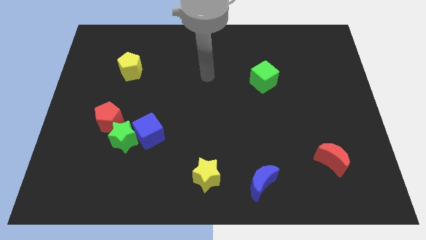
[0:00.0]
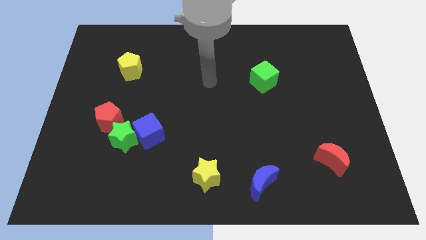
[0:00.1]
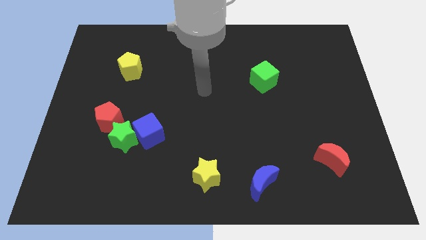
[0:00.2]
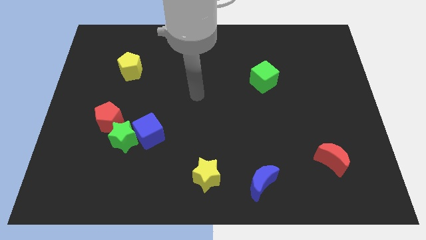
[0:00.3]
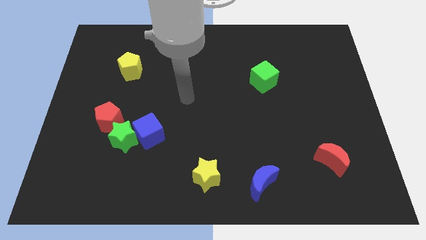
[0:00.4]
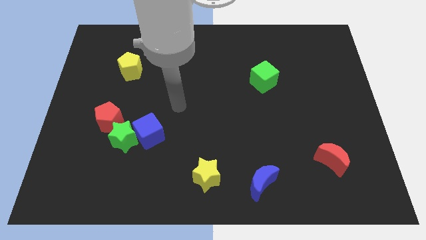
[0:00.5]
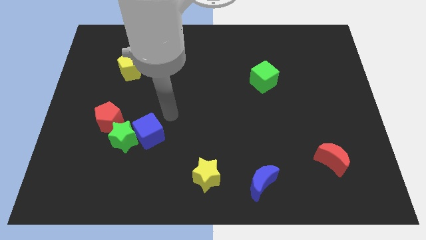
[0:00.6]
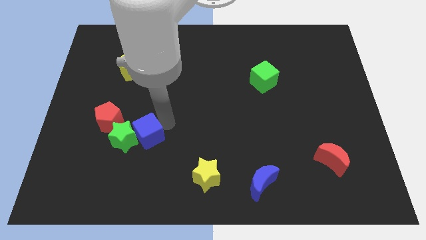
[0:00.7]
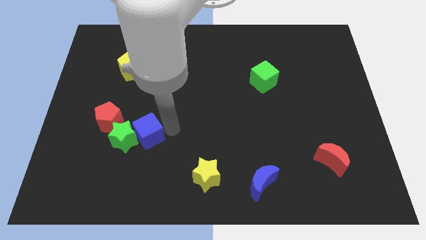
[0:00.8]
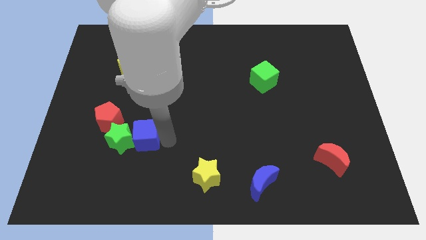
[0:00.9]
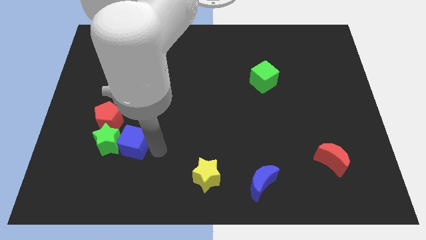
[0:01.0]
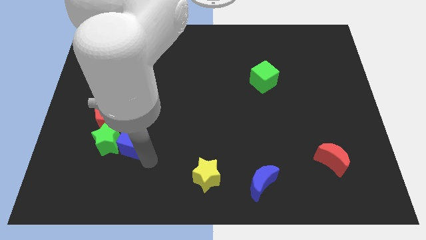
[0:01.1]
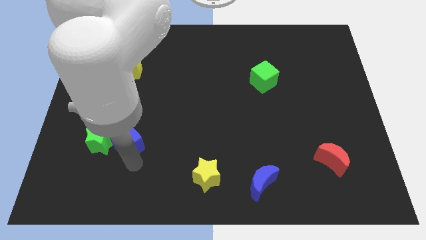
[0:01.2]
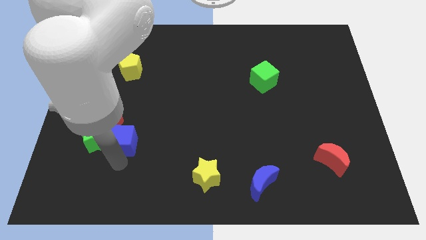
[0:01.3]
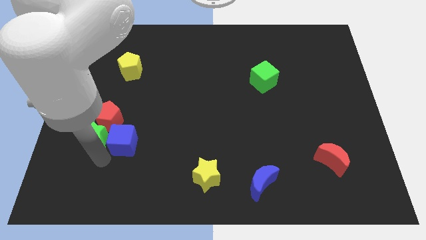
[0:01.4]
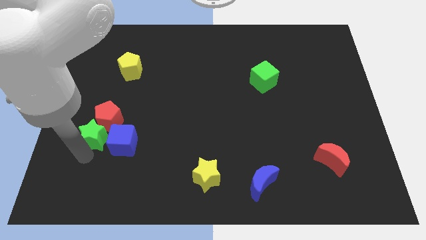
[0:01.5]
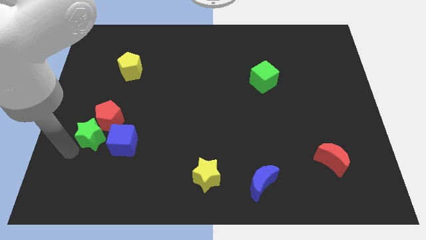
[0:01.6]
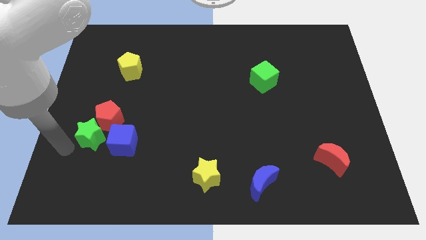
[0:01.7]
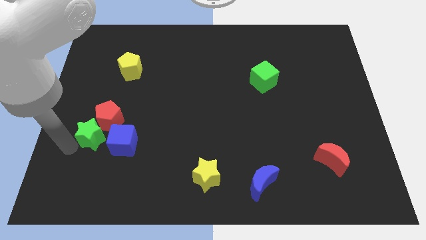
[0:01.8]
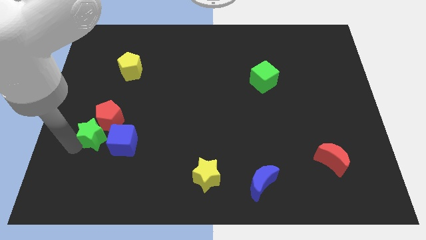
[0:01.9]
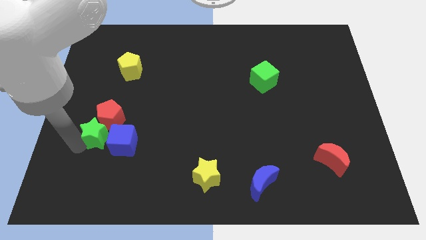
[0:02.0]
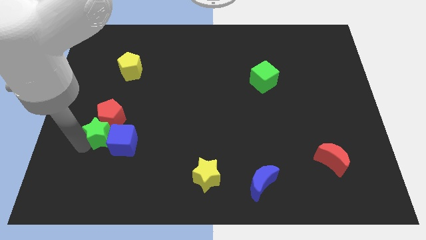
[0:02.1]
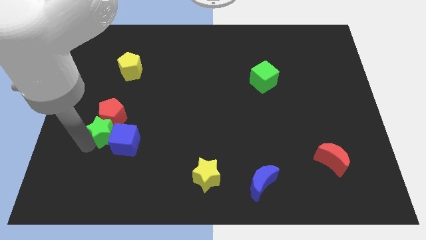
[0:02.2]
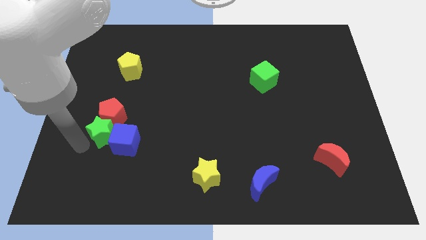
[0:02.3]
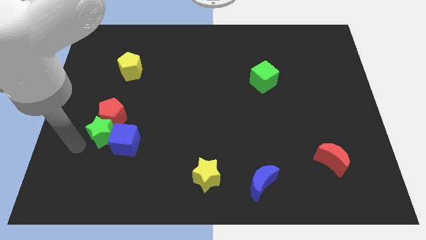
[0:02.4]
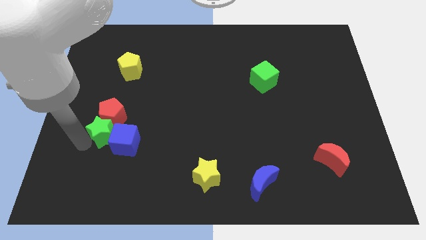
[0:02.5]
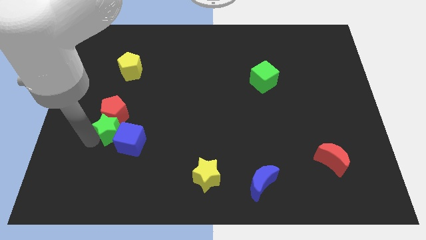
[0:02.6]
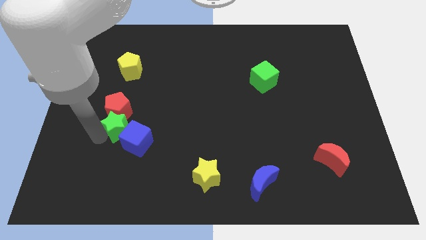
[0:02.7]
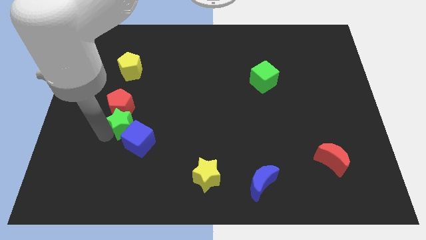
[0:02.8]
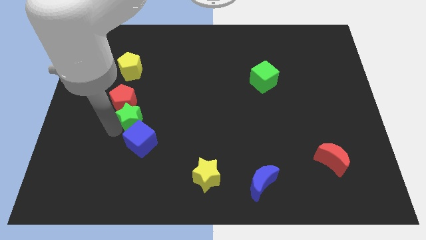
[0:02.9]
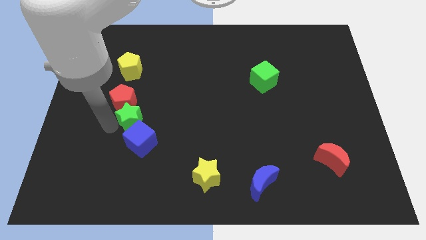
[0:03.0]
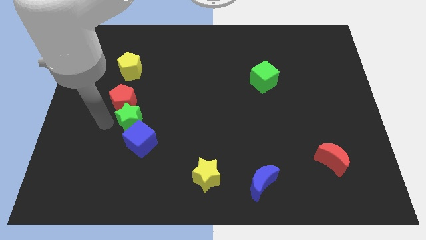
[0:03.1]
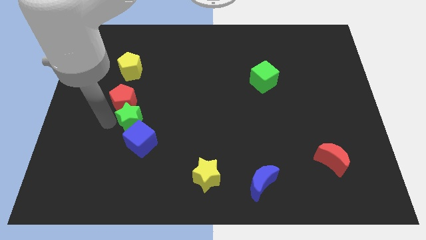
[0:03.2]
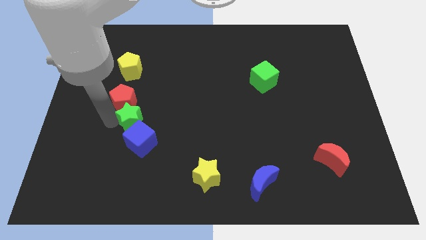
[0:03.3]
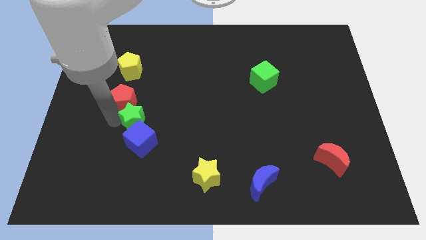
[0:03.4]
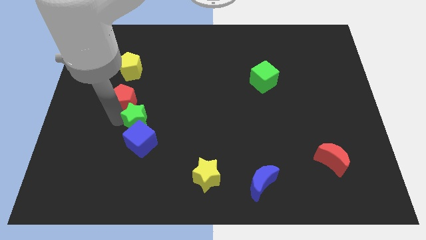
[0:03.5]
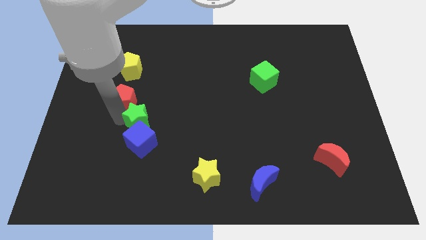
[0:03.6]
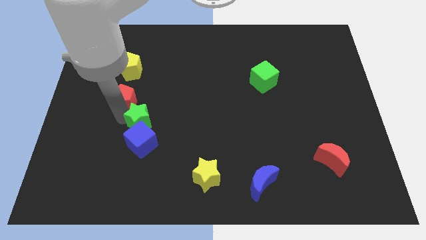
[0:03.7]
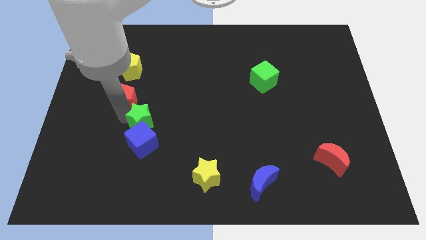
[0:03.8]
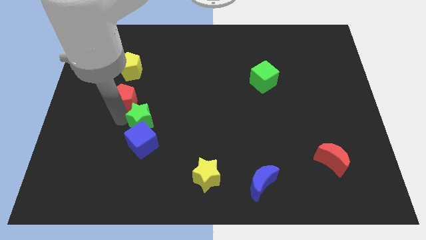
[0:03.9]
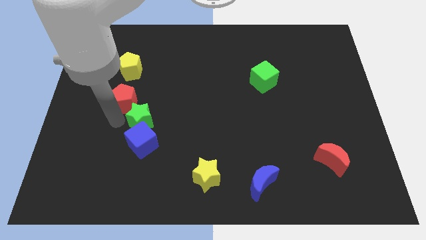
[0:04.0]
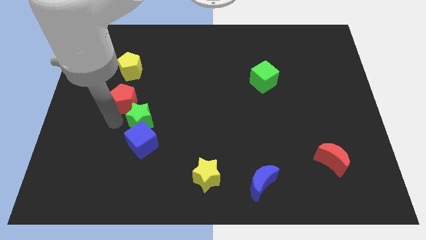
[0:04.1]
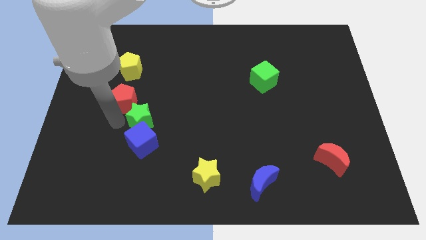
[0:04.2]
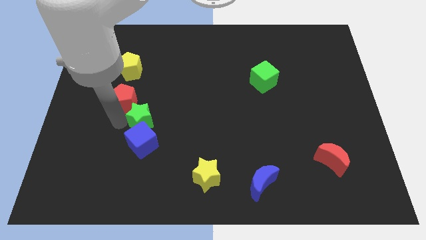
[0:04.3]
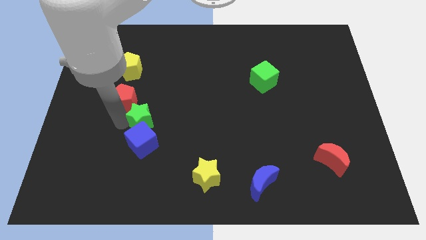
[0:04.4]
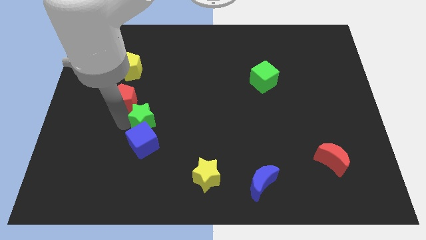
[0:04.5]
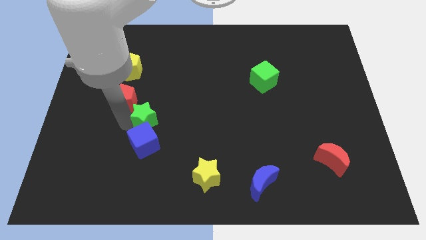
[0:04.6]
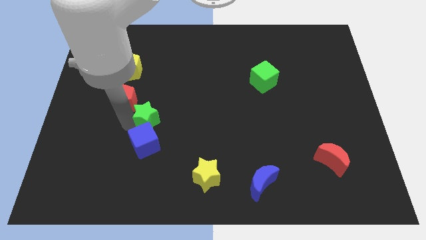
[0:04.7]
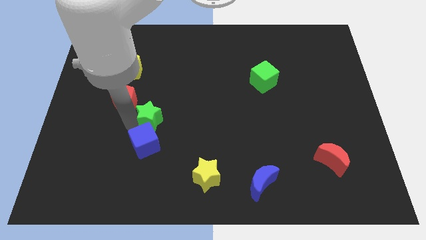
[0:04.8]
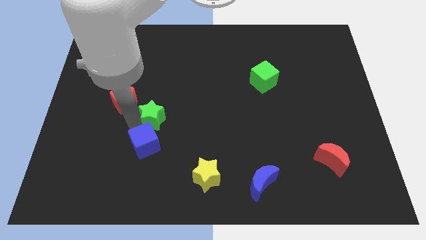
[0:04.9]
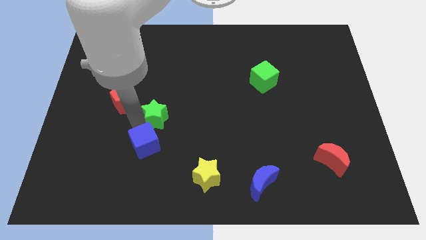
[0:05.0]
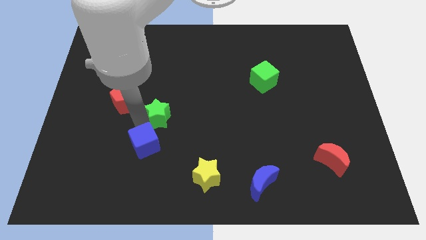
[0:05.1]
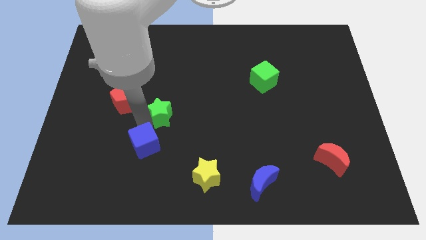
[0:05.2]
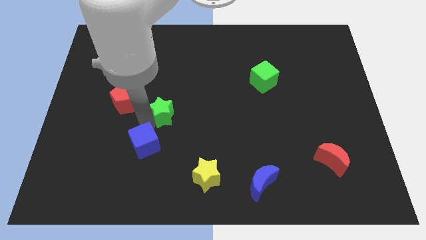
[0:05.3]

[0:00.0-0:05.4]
move the green star to the middle of the board

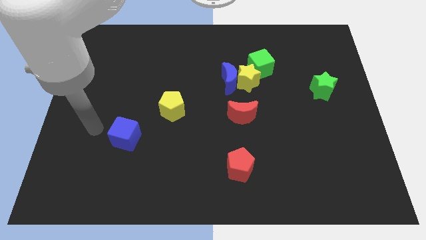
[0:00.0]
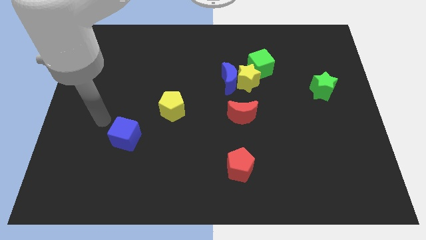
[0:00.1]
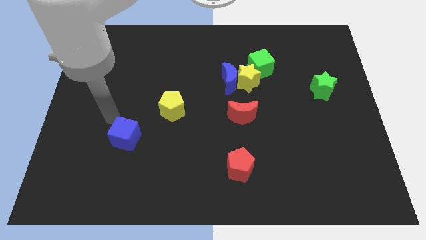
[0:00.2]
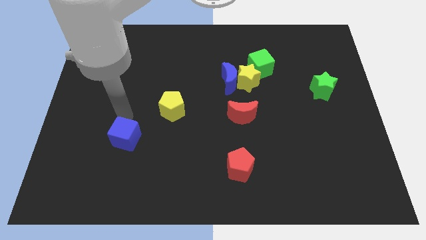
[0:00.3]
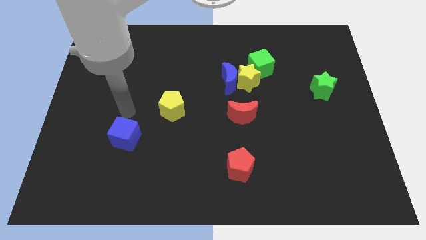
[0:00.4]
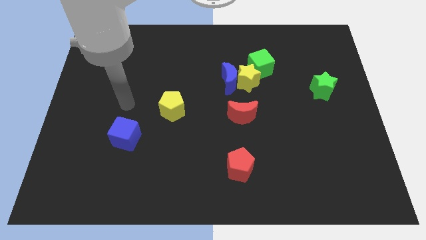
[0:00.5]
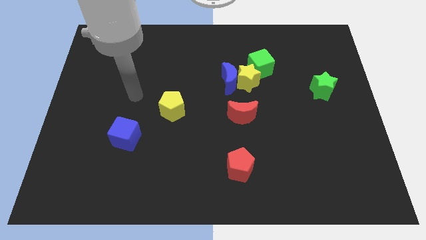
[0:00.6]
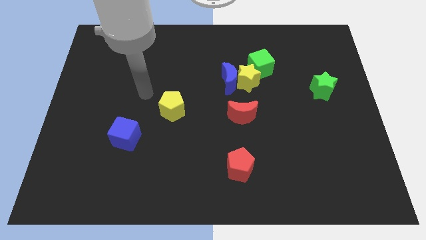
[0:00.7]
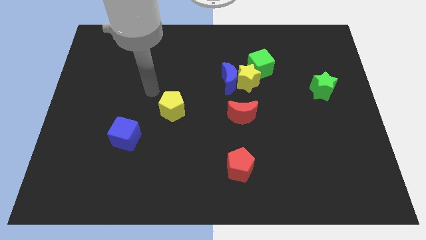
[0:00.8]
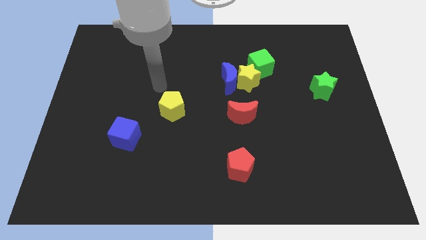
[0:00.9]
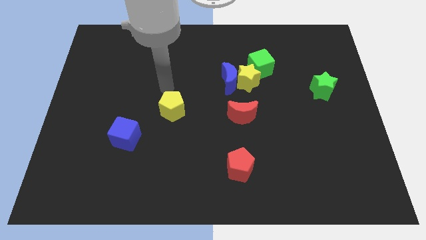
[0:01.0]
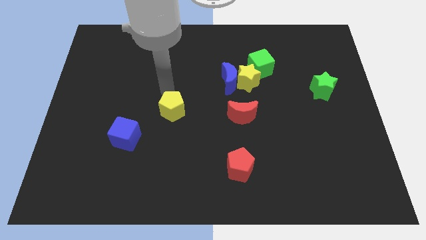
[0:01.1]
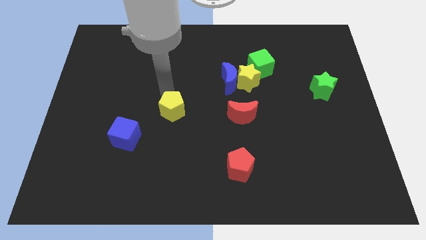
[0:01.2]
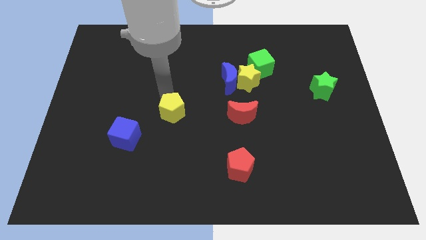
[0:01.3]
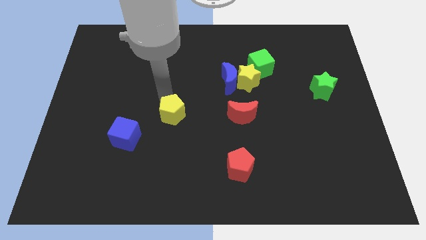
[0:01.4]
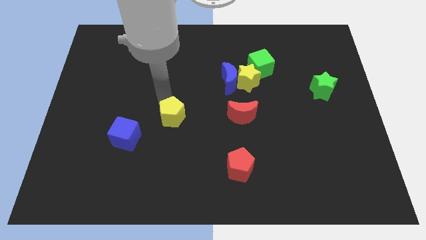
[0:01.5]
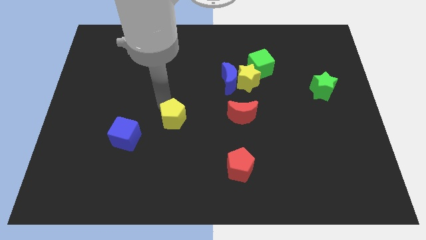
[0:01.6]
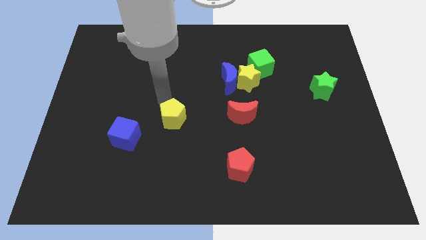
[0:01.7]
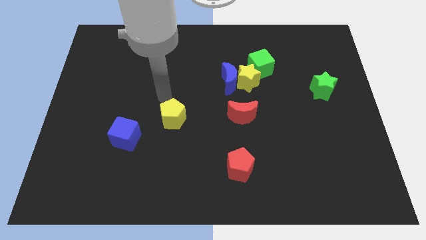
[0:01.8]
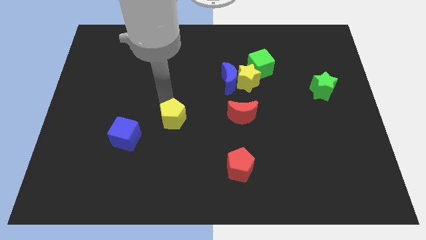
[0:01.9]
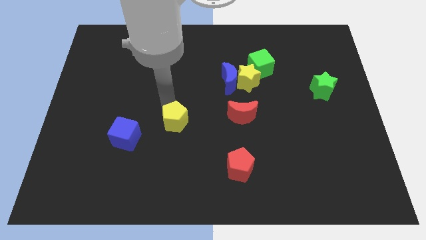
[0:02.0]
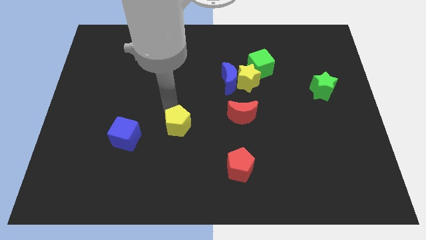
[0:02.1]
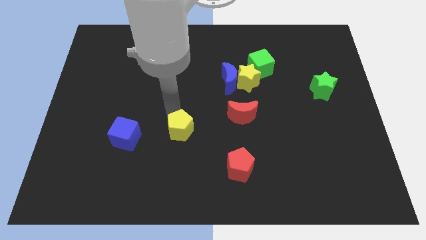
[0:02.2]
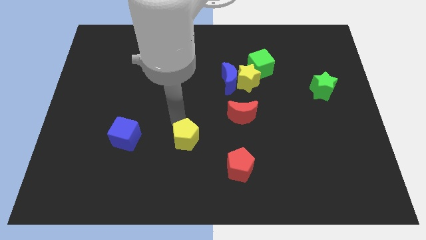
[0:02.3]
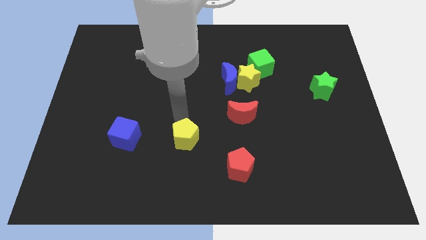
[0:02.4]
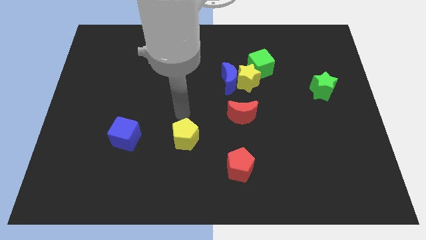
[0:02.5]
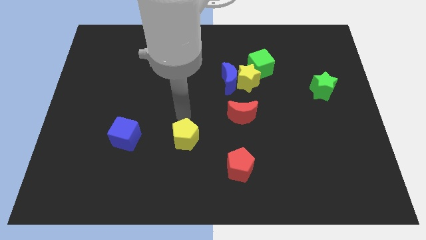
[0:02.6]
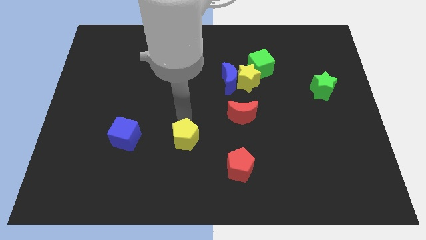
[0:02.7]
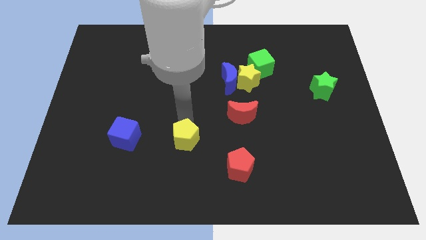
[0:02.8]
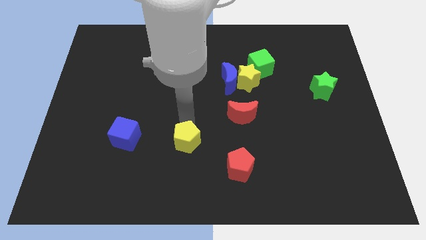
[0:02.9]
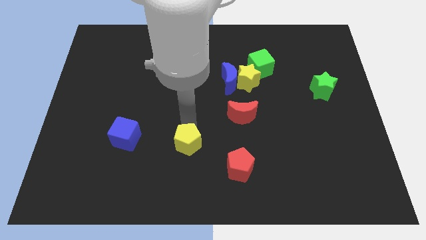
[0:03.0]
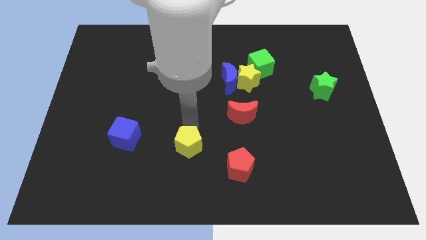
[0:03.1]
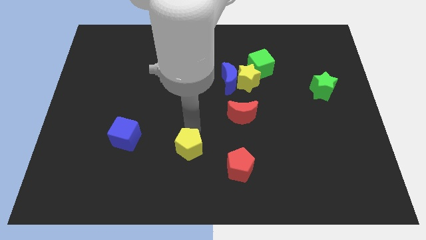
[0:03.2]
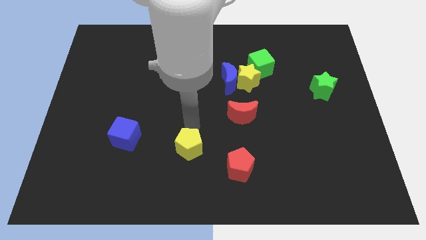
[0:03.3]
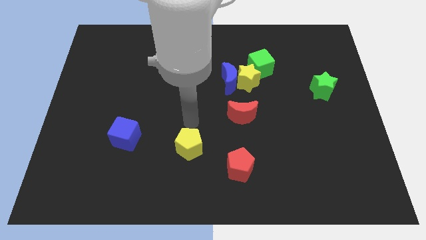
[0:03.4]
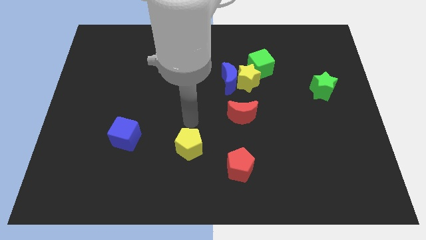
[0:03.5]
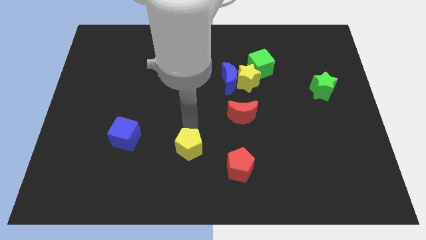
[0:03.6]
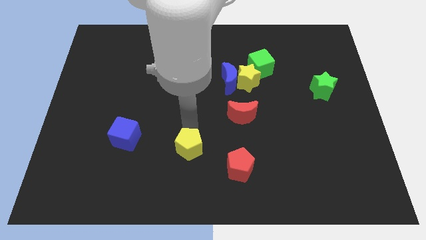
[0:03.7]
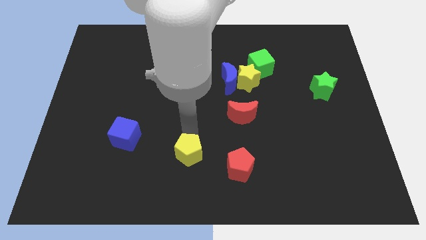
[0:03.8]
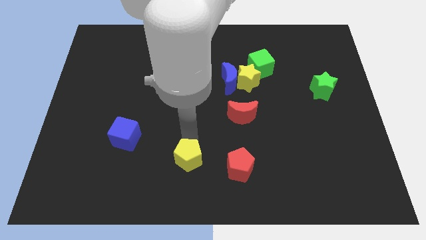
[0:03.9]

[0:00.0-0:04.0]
put the yellow pentagon to the bottom
